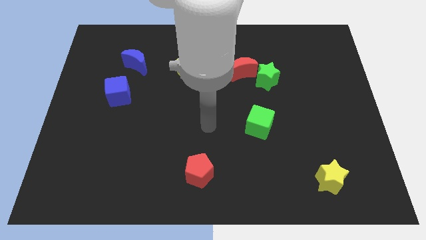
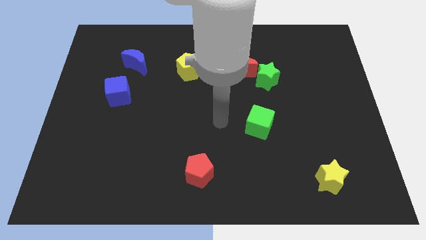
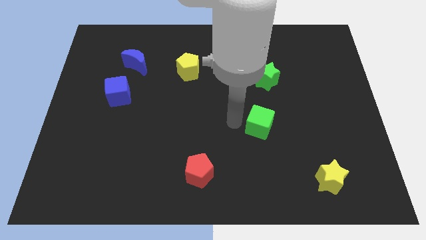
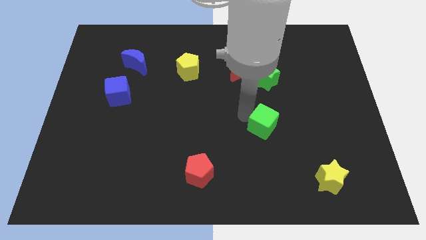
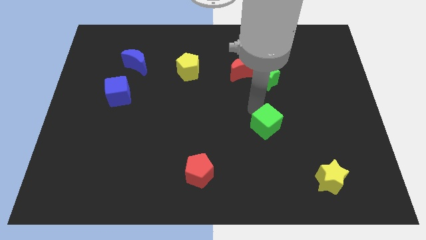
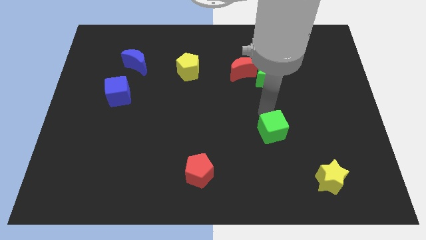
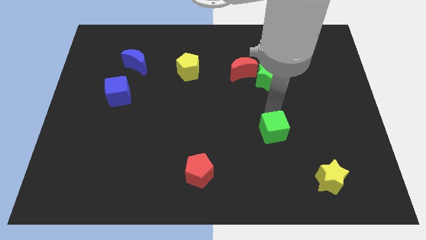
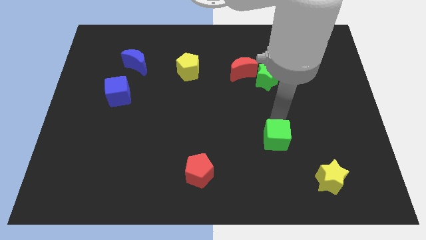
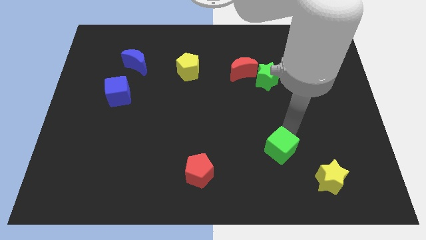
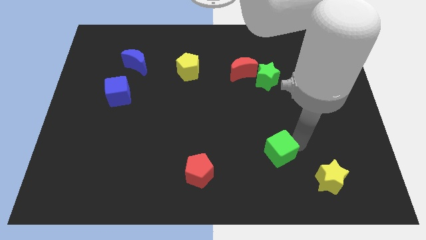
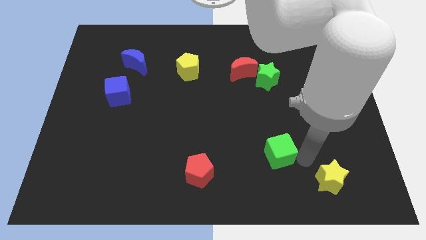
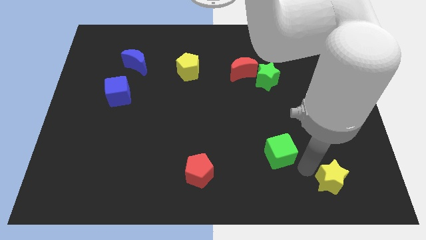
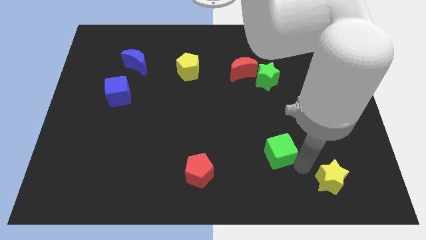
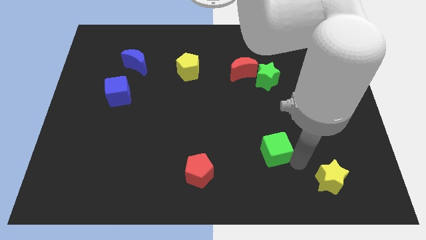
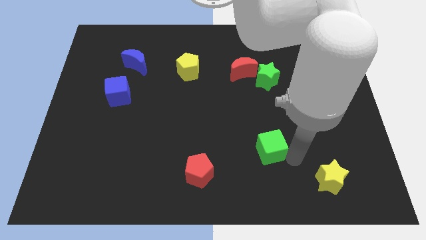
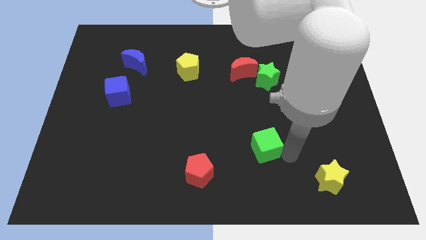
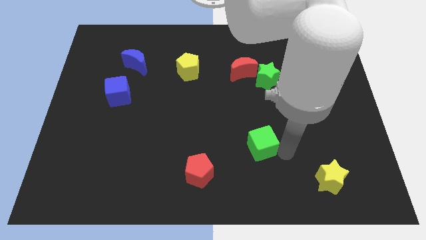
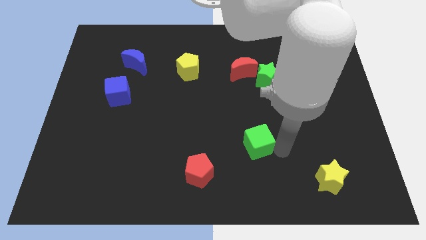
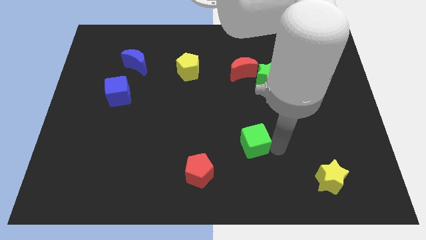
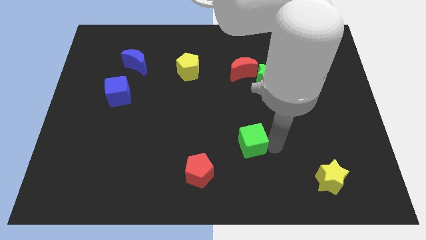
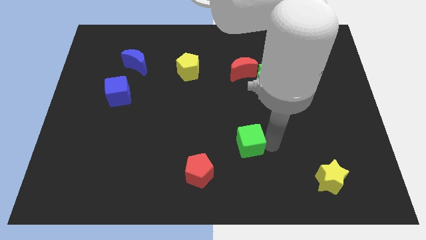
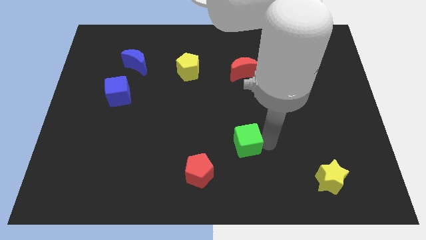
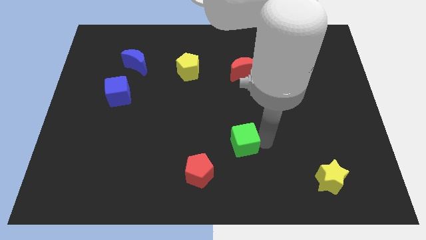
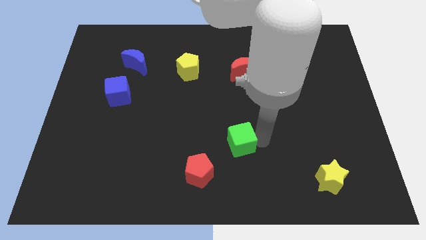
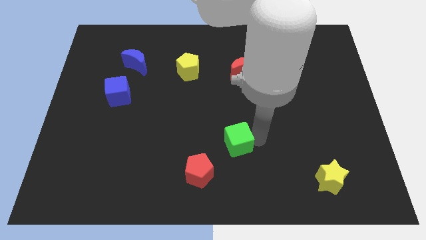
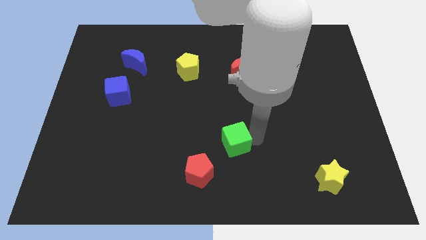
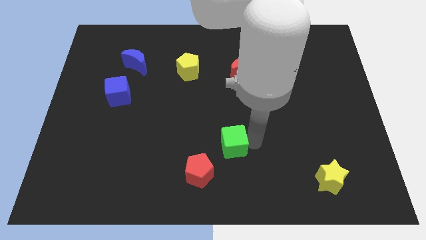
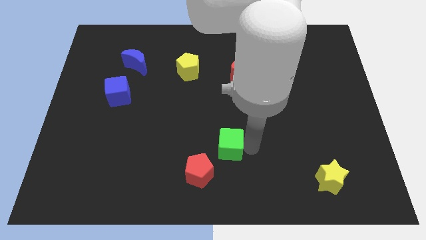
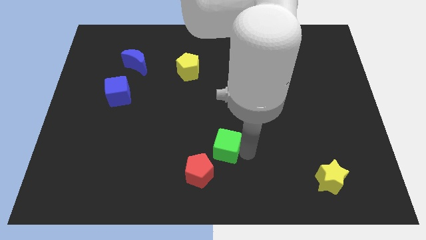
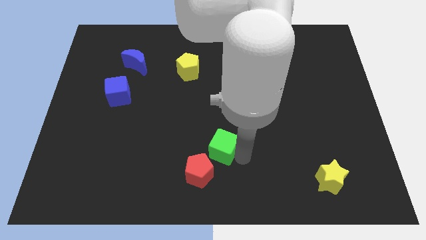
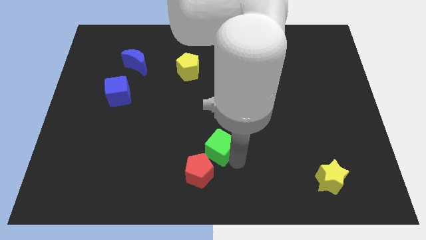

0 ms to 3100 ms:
slide the green cube left a little

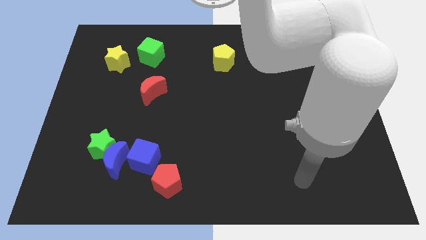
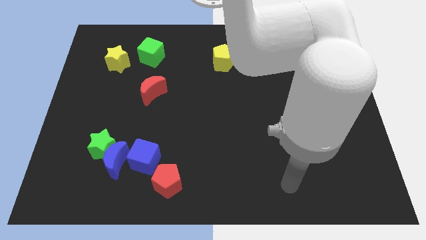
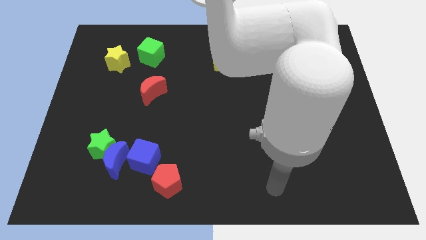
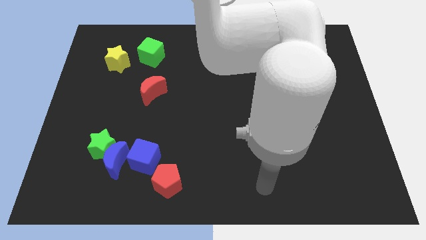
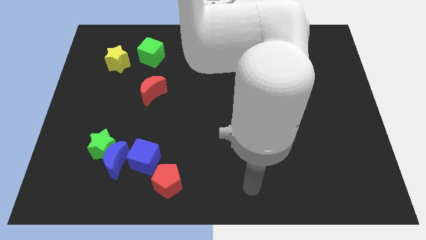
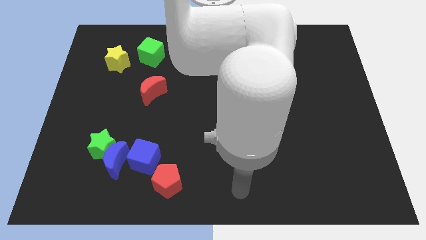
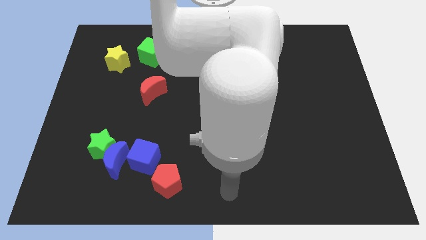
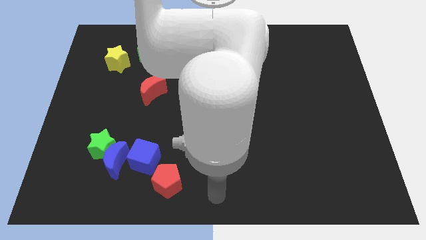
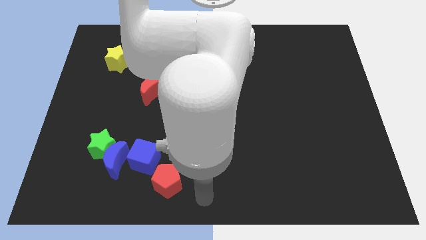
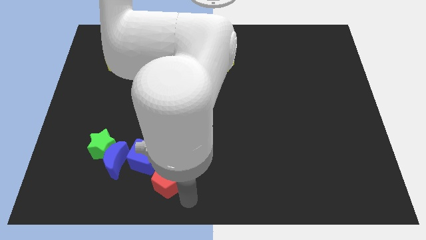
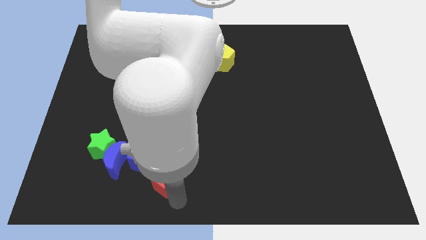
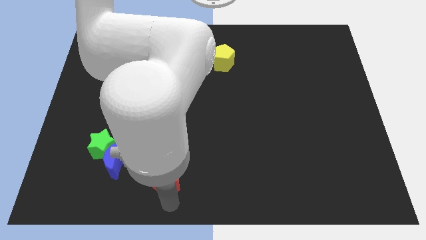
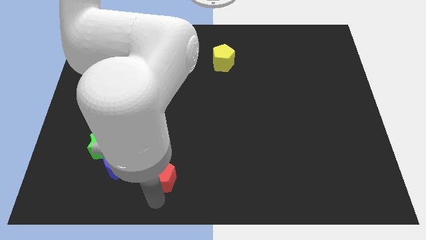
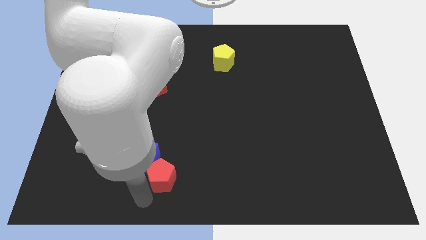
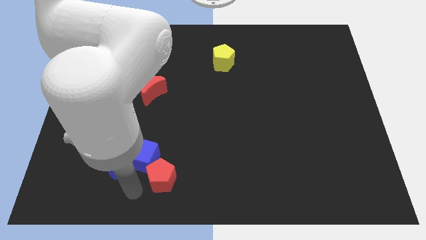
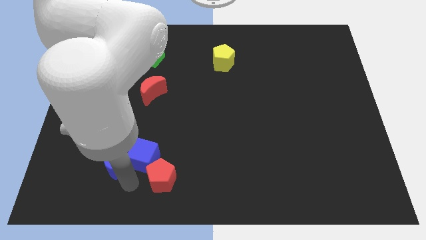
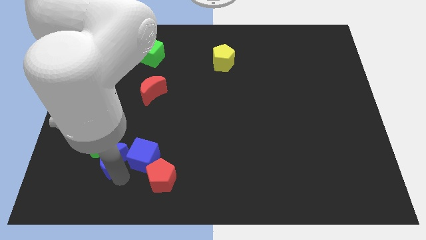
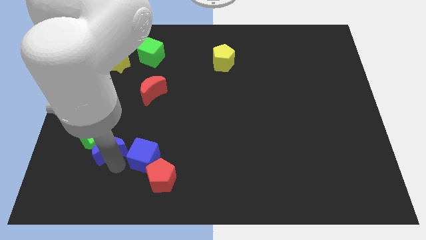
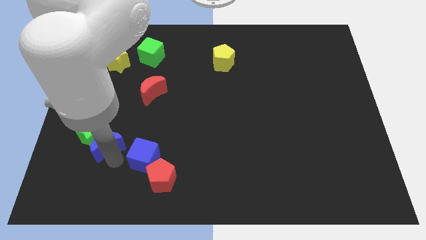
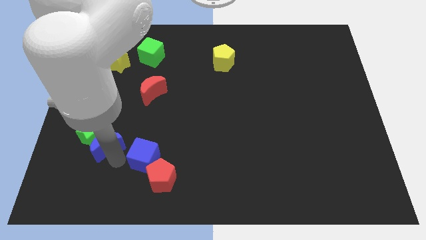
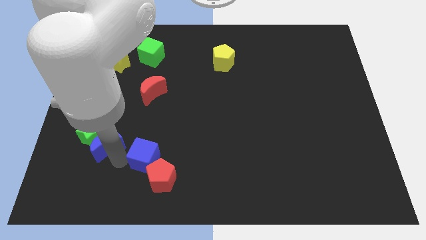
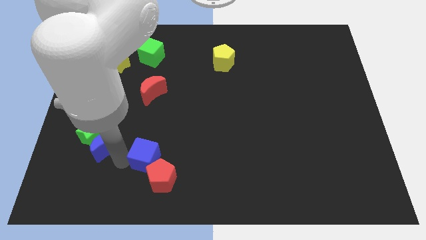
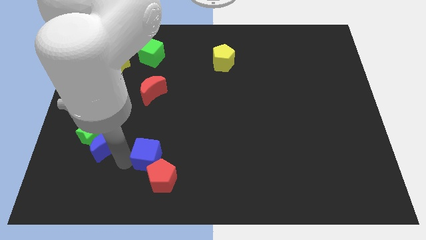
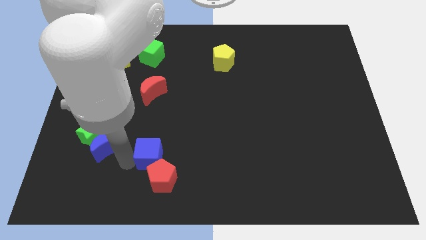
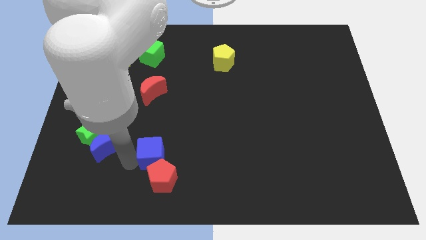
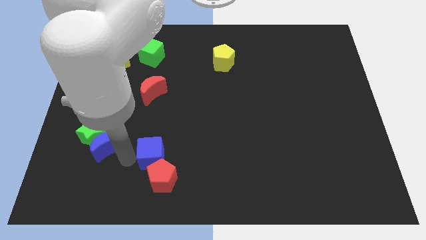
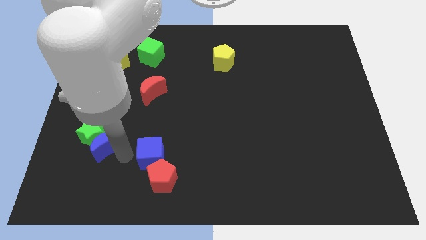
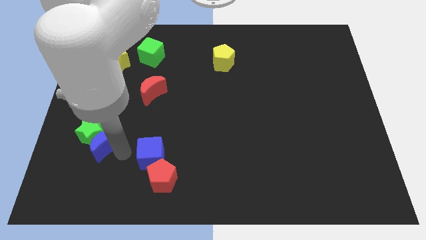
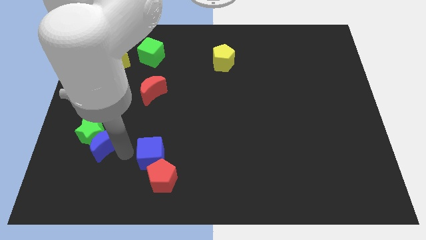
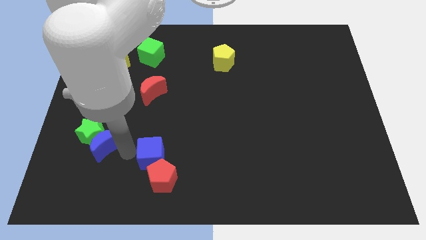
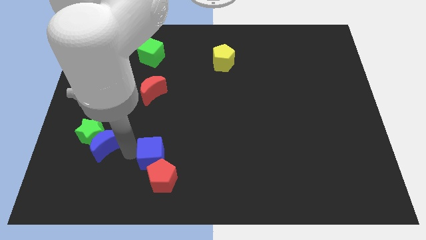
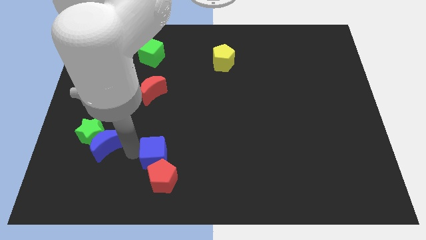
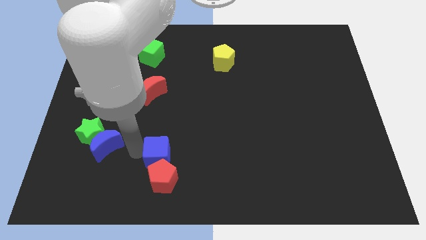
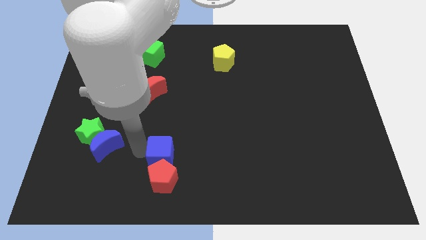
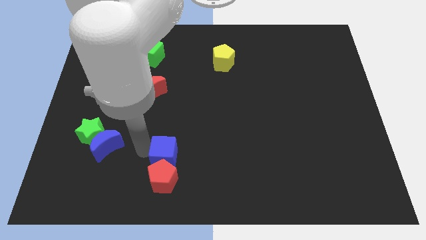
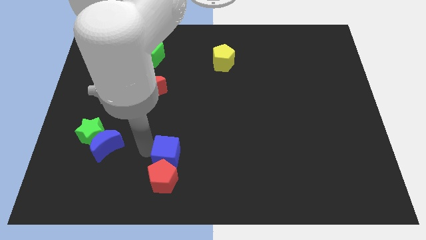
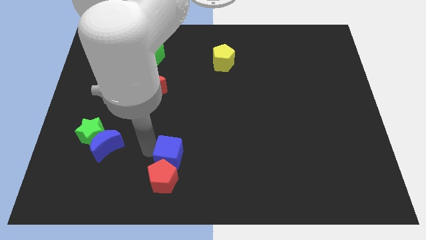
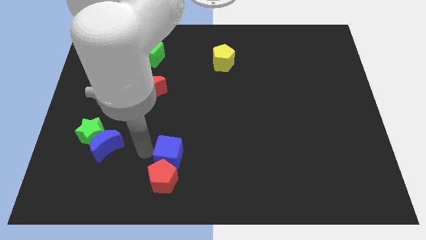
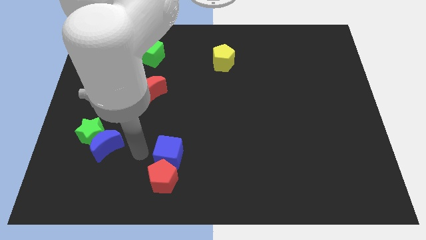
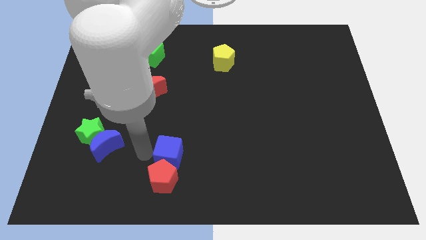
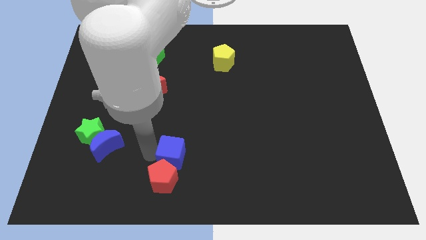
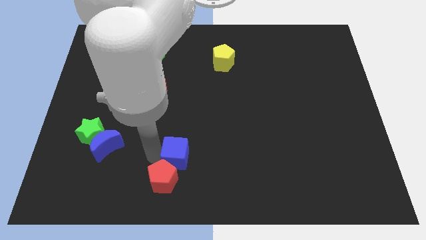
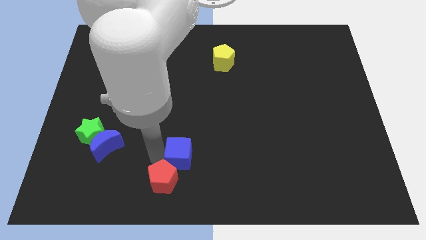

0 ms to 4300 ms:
push the blue cube a bit to the right

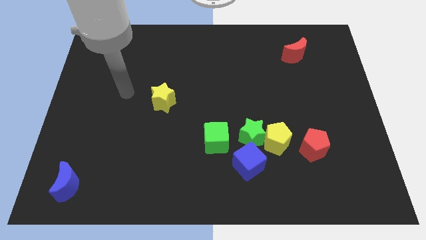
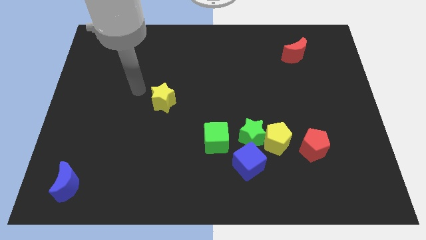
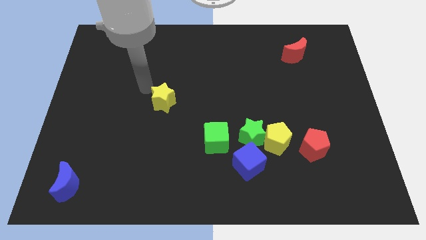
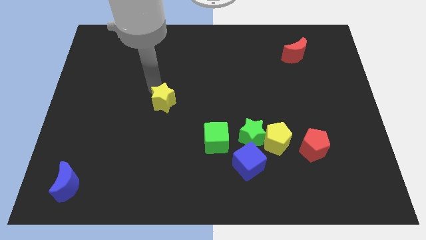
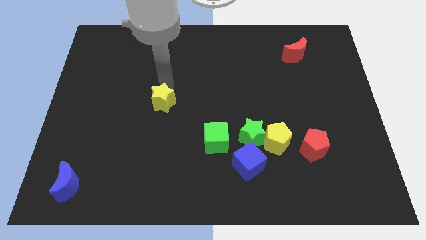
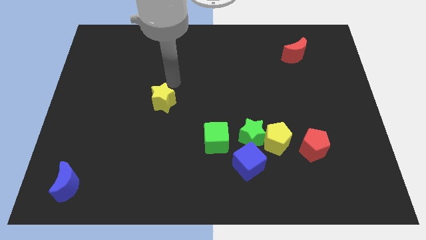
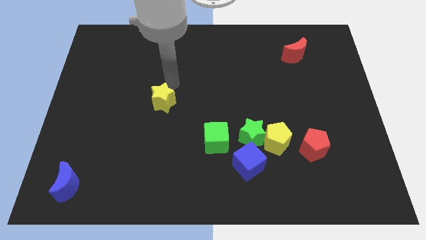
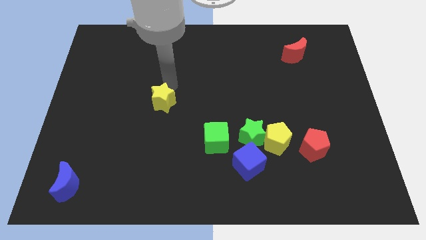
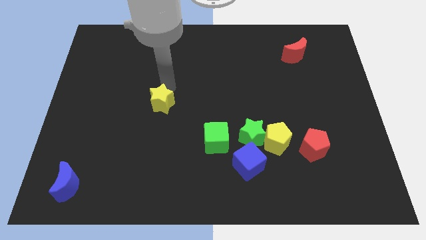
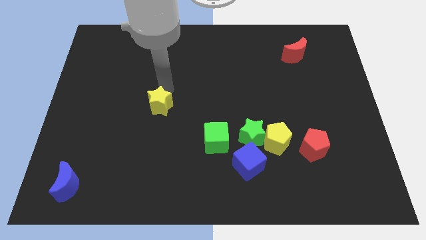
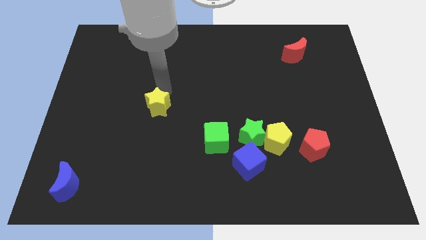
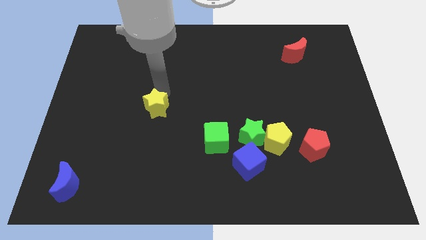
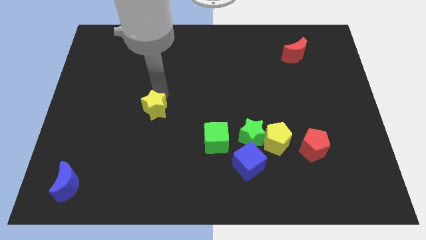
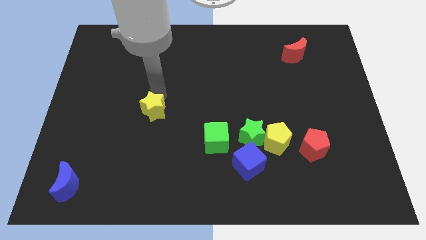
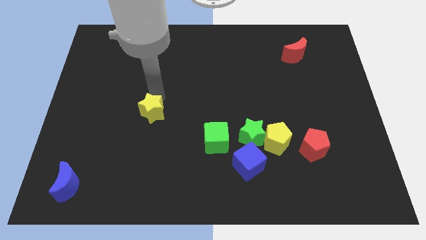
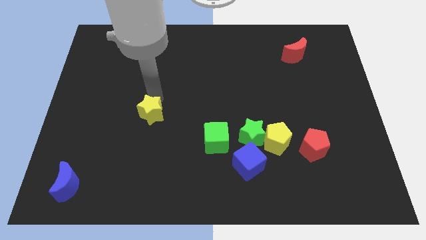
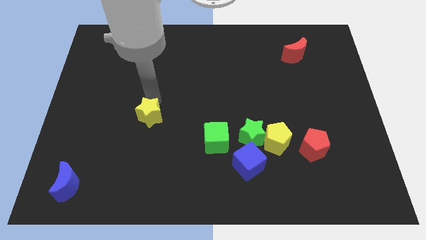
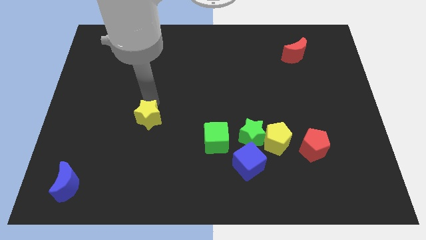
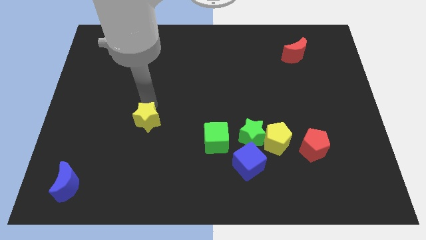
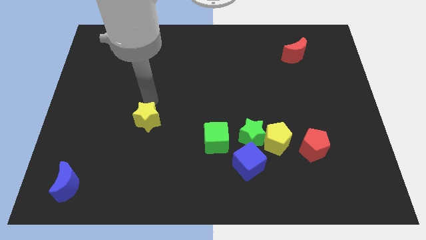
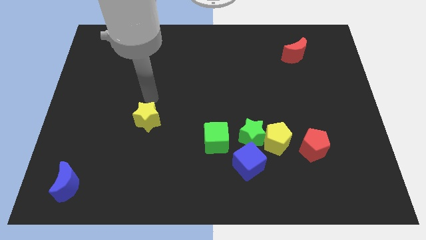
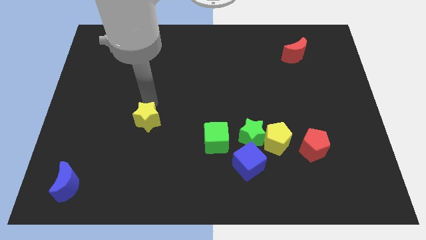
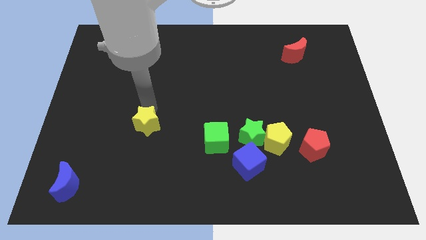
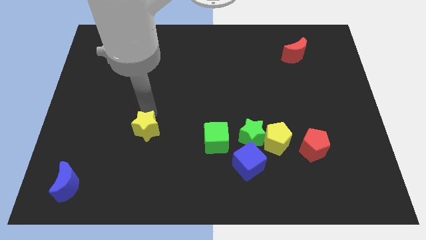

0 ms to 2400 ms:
slide the yellow star slightly down
